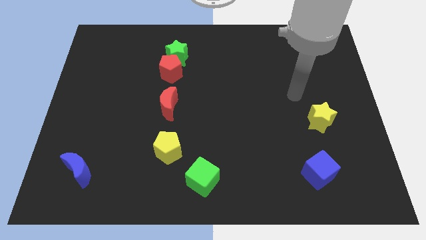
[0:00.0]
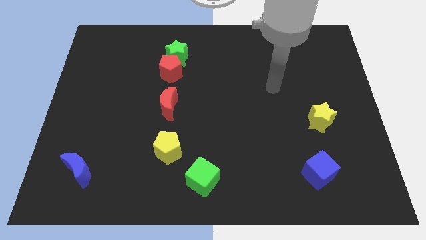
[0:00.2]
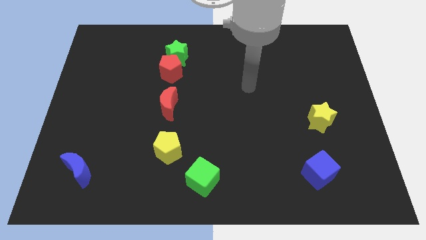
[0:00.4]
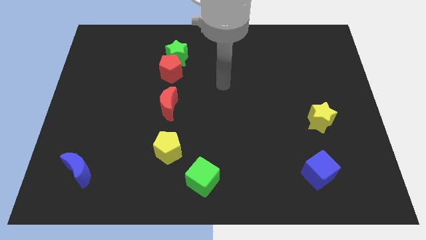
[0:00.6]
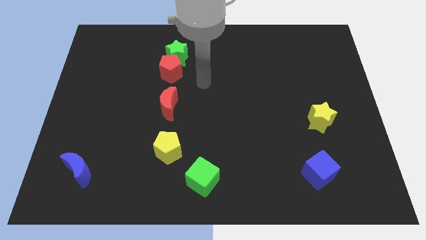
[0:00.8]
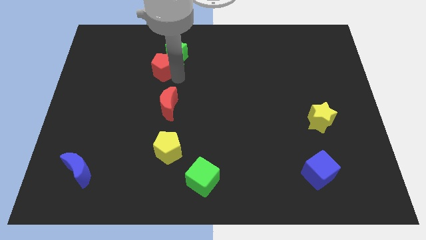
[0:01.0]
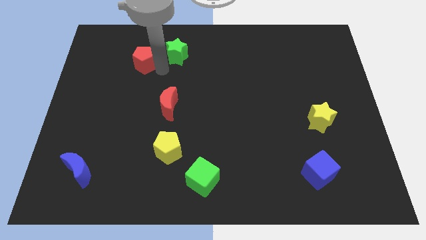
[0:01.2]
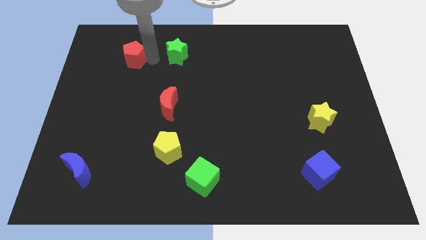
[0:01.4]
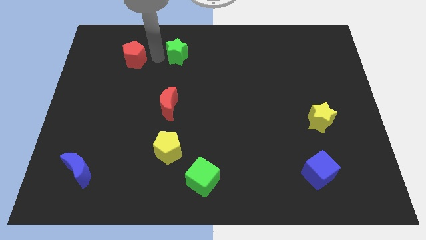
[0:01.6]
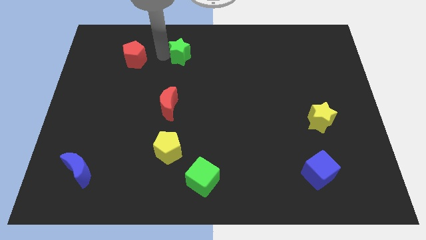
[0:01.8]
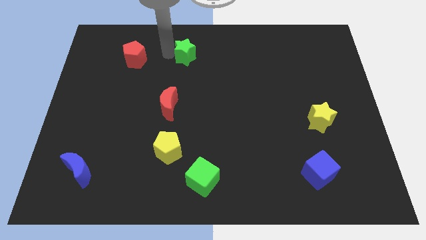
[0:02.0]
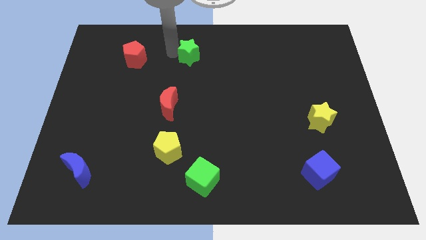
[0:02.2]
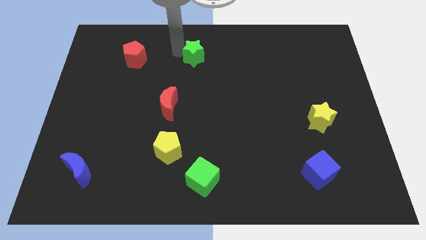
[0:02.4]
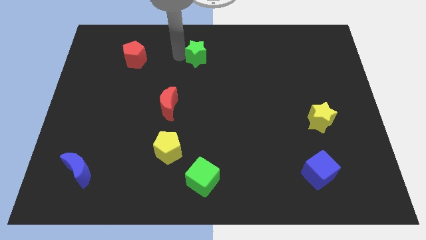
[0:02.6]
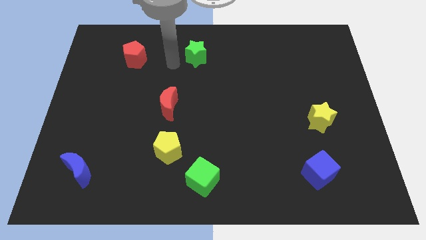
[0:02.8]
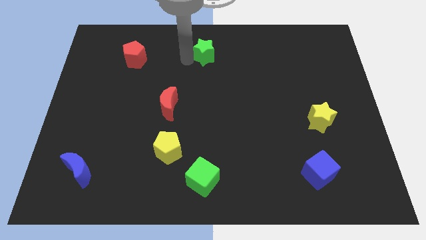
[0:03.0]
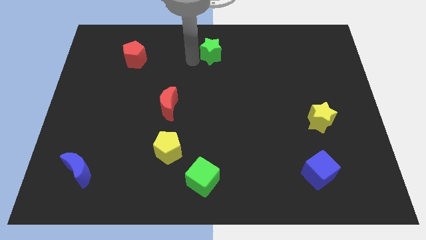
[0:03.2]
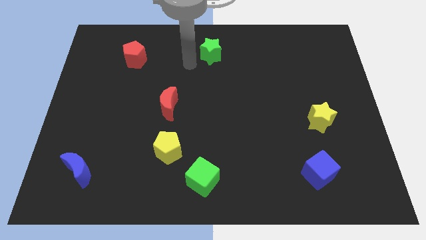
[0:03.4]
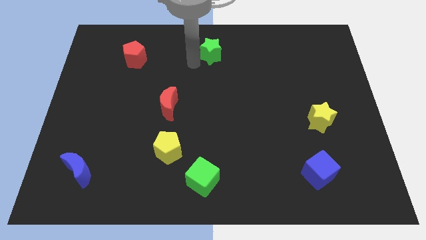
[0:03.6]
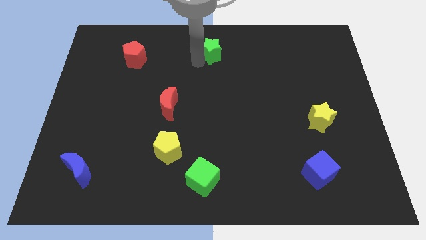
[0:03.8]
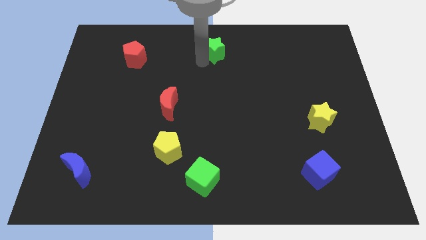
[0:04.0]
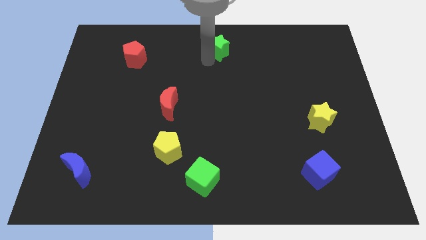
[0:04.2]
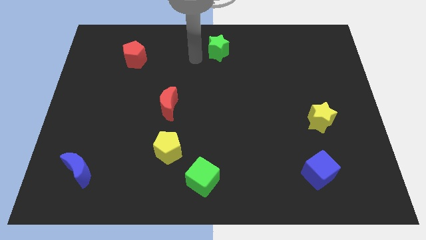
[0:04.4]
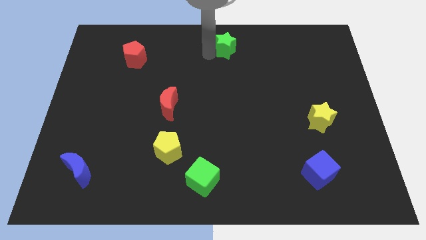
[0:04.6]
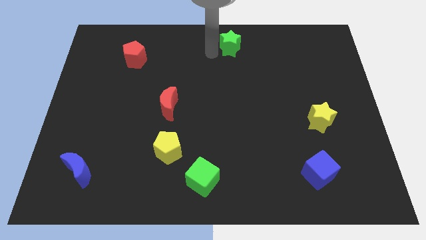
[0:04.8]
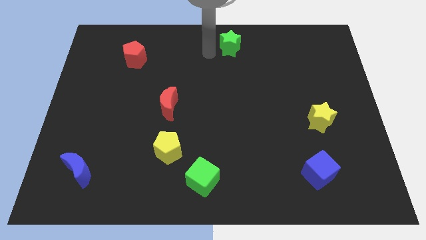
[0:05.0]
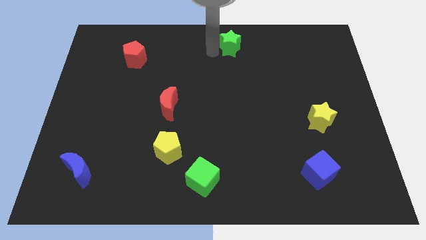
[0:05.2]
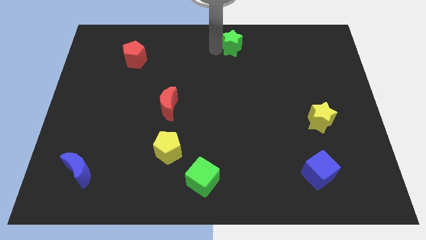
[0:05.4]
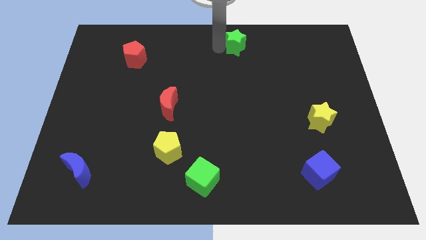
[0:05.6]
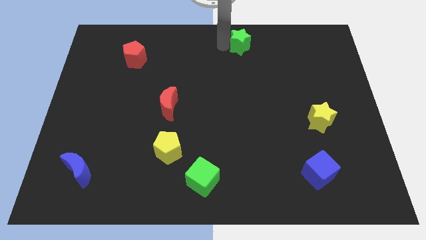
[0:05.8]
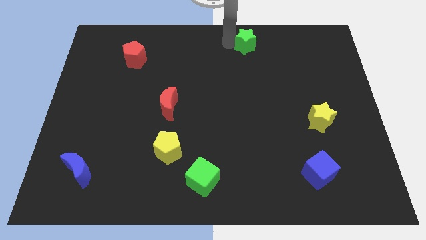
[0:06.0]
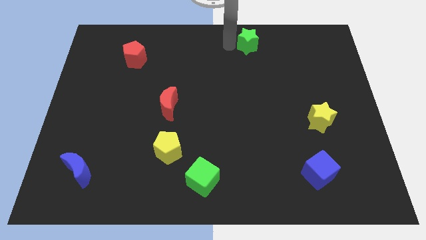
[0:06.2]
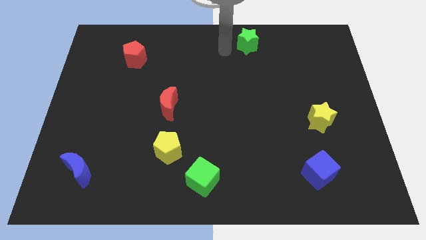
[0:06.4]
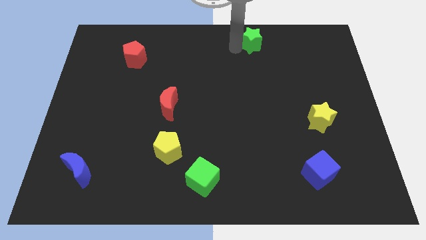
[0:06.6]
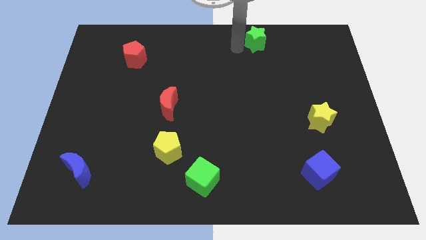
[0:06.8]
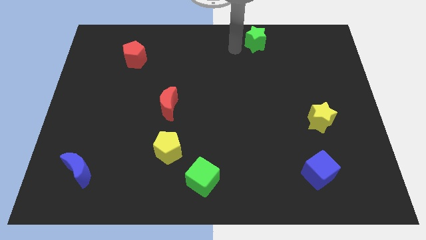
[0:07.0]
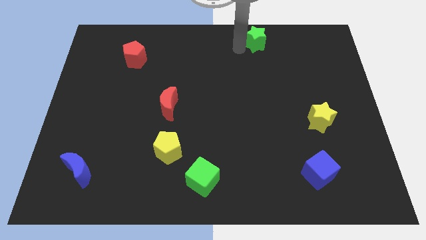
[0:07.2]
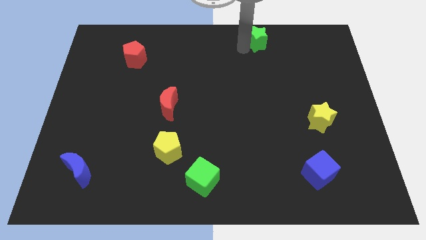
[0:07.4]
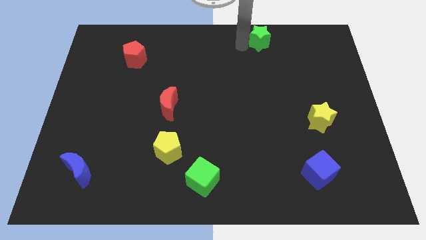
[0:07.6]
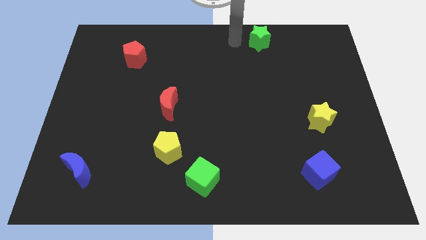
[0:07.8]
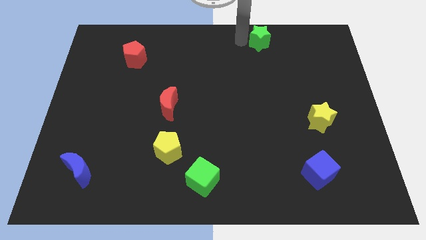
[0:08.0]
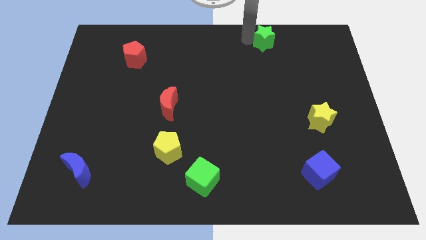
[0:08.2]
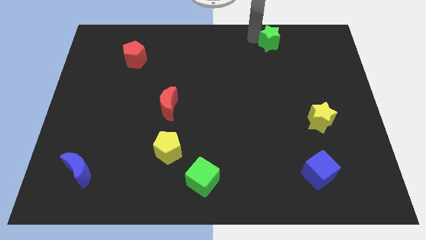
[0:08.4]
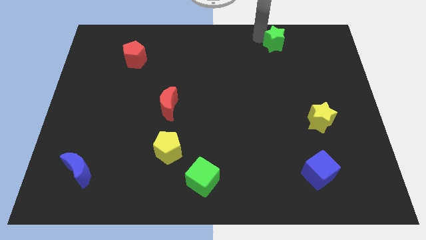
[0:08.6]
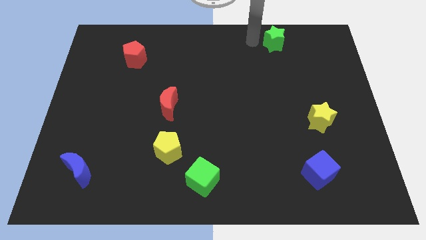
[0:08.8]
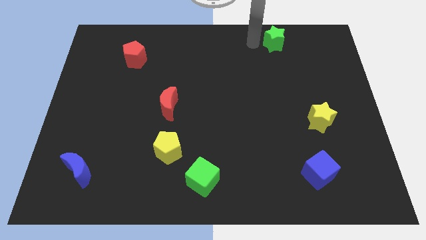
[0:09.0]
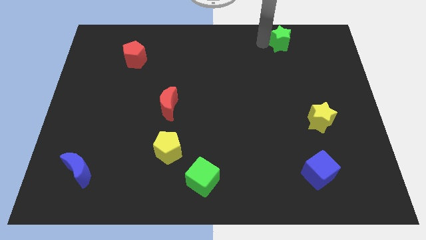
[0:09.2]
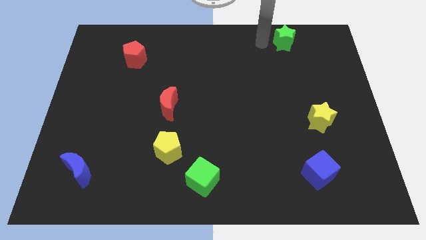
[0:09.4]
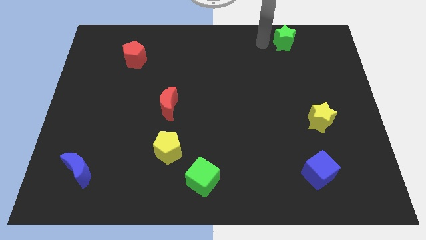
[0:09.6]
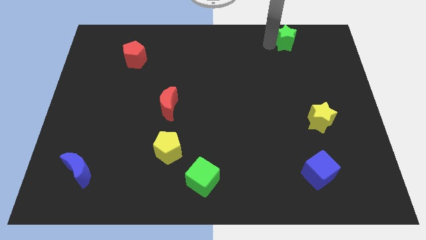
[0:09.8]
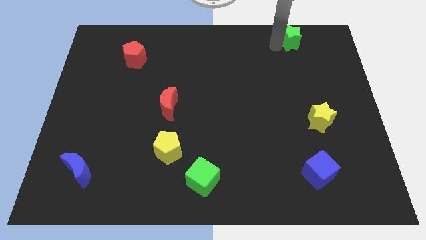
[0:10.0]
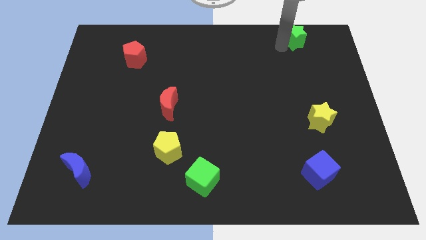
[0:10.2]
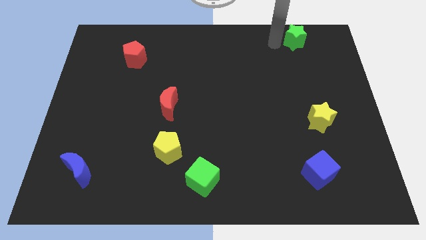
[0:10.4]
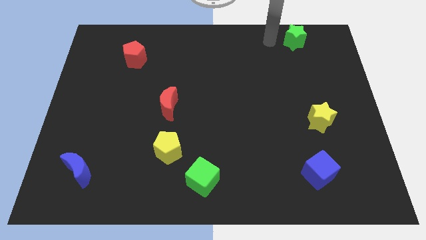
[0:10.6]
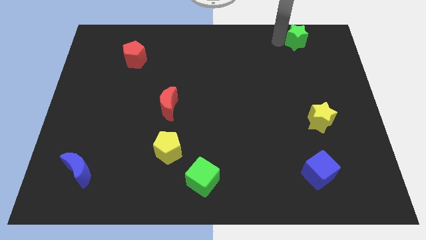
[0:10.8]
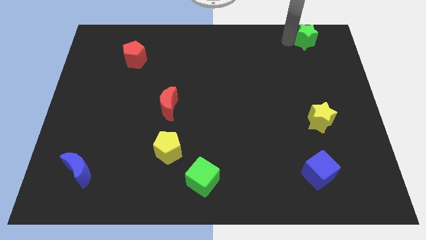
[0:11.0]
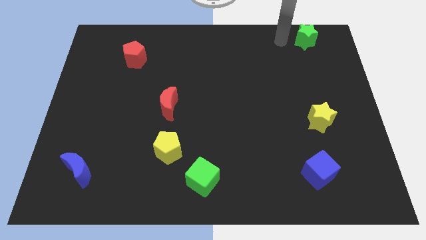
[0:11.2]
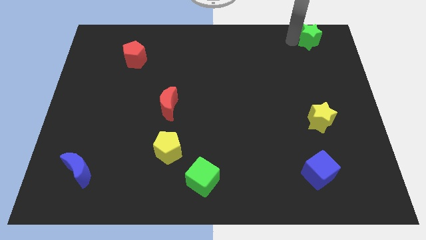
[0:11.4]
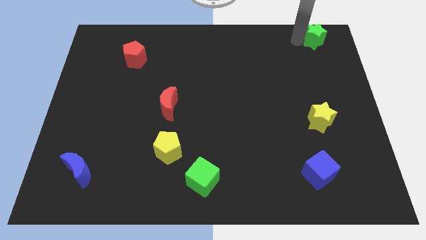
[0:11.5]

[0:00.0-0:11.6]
put the green star to the upper right corner
